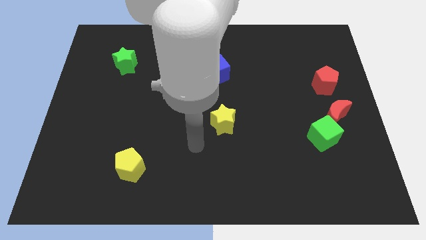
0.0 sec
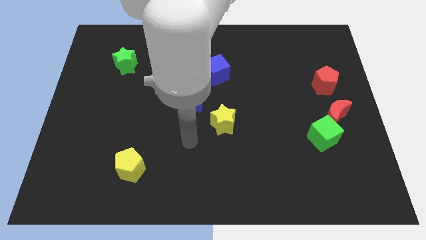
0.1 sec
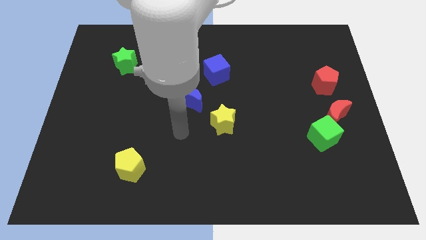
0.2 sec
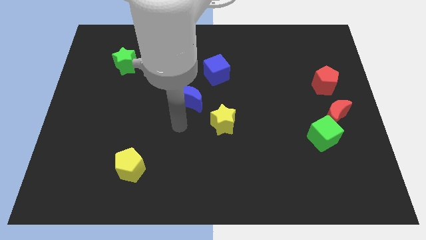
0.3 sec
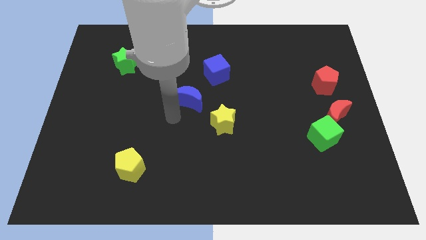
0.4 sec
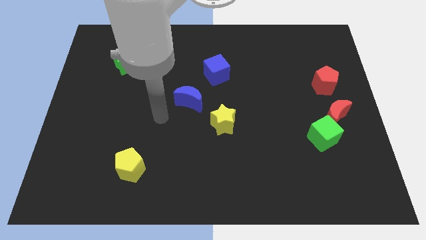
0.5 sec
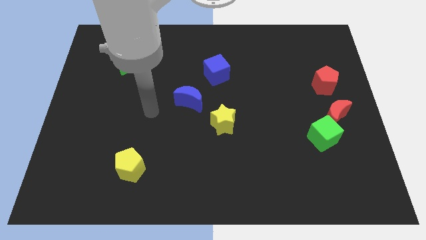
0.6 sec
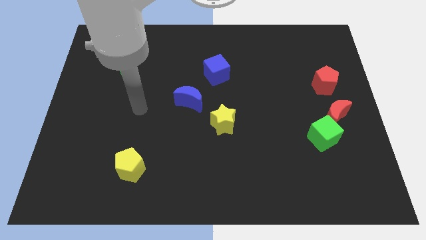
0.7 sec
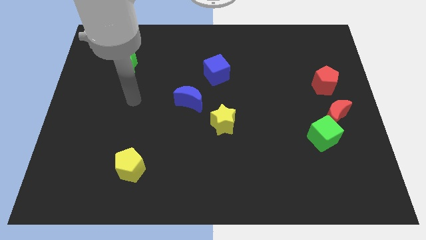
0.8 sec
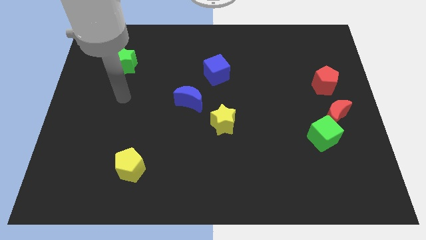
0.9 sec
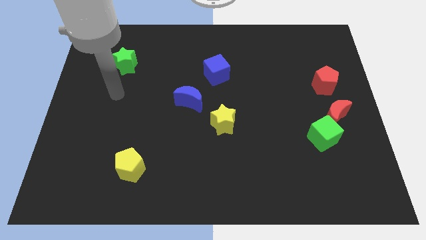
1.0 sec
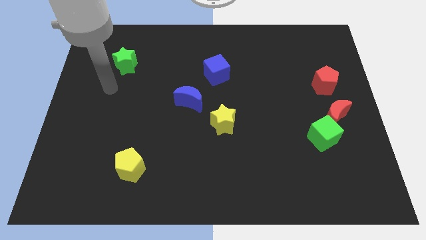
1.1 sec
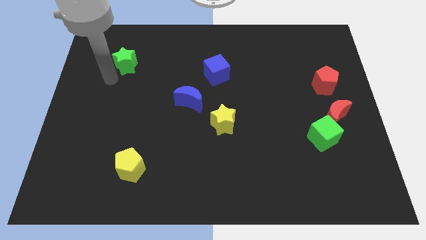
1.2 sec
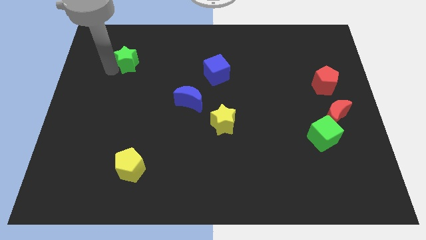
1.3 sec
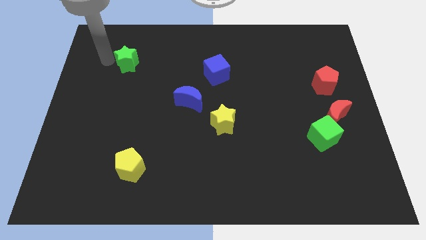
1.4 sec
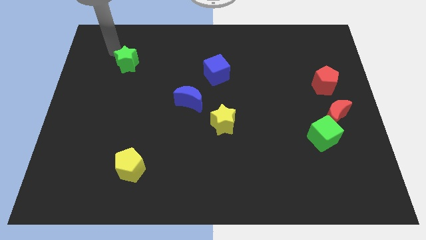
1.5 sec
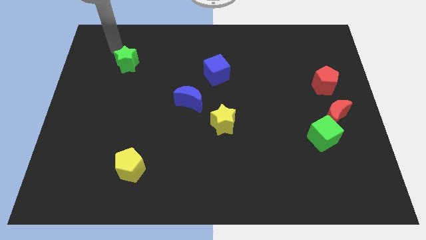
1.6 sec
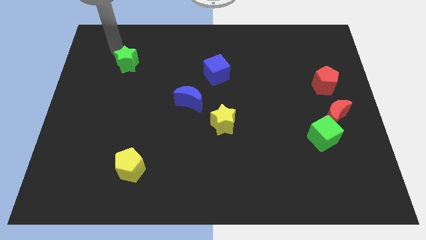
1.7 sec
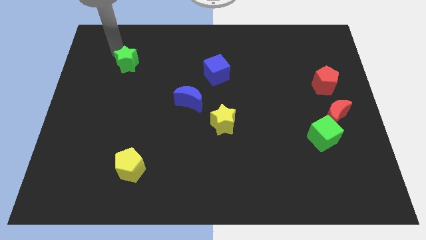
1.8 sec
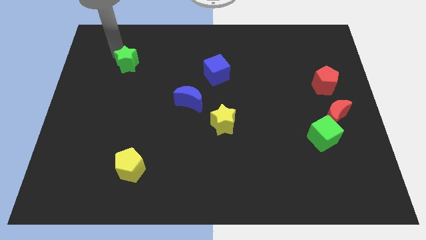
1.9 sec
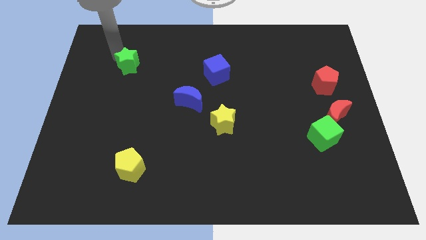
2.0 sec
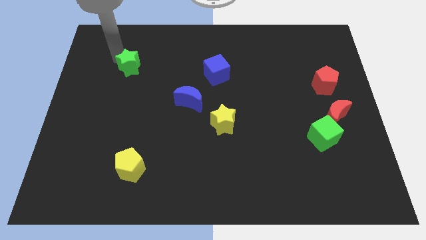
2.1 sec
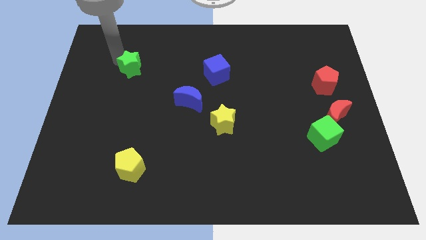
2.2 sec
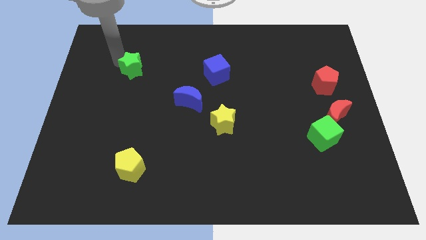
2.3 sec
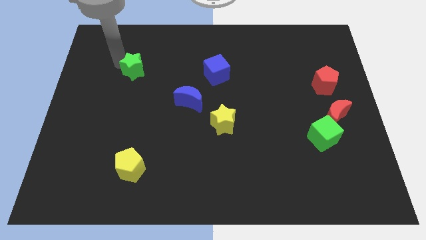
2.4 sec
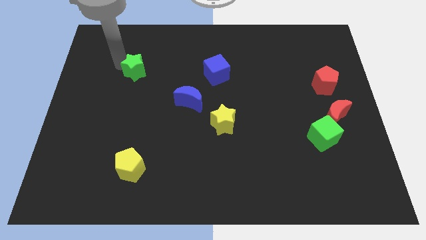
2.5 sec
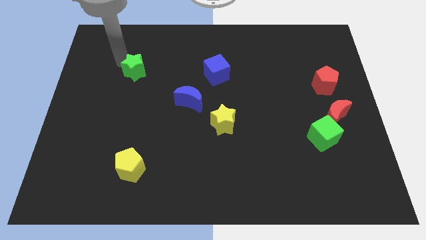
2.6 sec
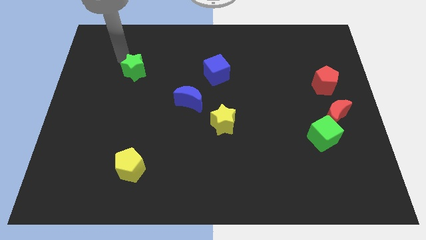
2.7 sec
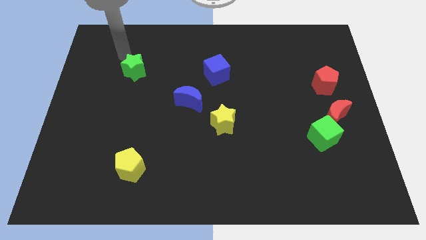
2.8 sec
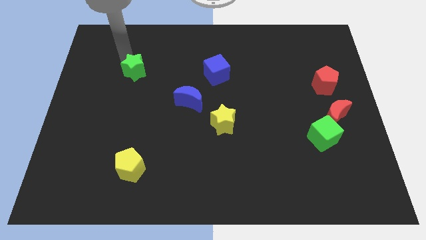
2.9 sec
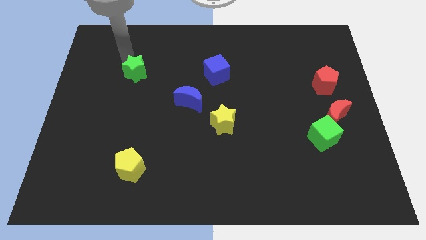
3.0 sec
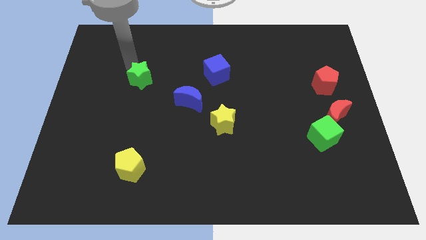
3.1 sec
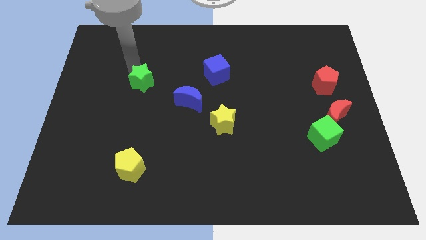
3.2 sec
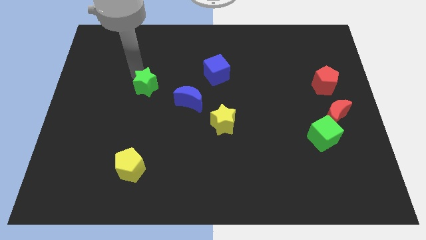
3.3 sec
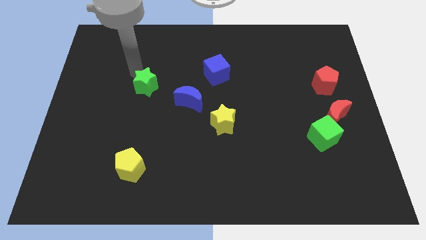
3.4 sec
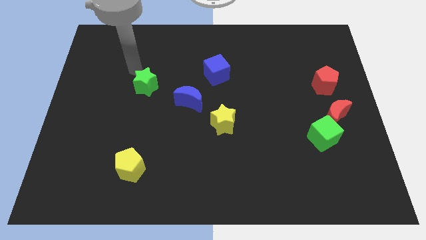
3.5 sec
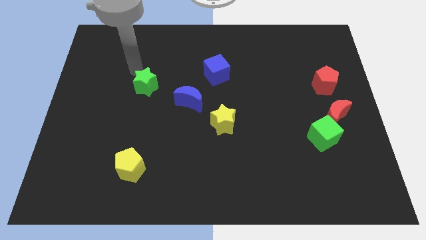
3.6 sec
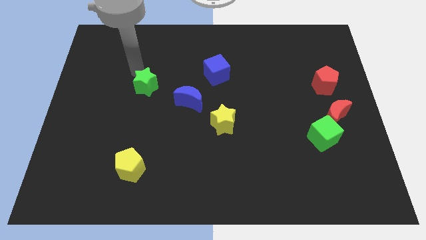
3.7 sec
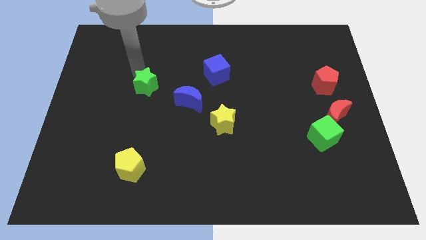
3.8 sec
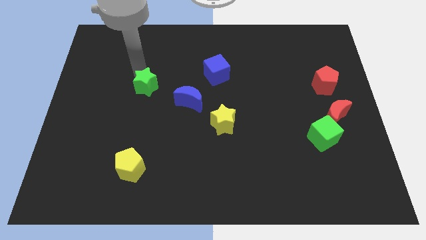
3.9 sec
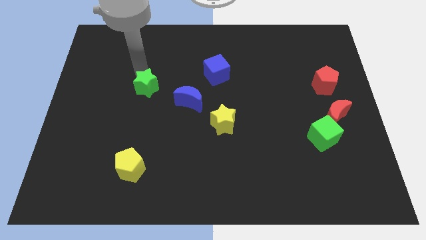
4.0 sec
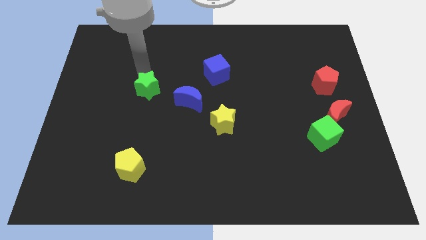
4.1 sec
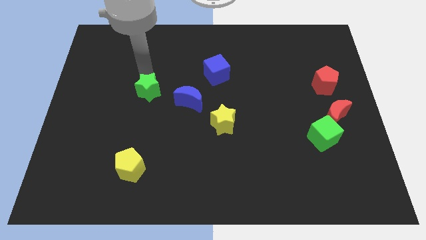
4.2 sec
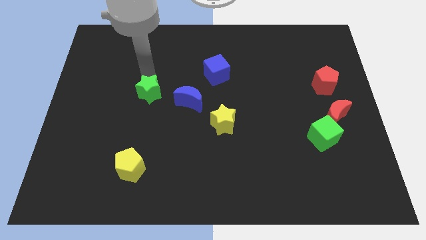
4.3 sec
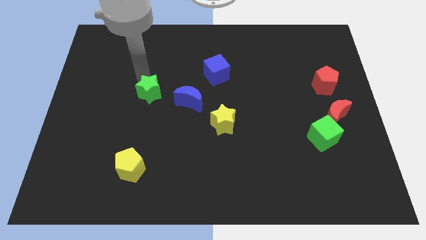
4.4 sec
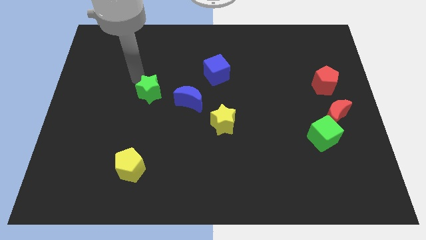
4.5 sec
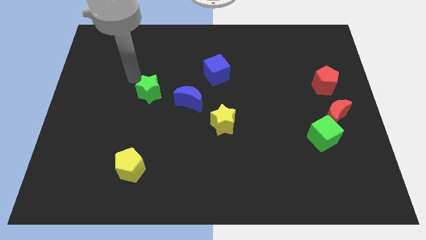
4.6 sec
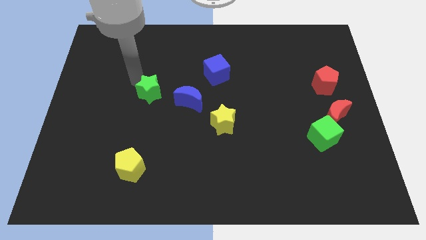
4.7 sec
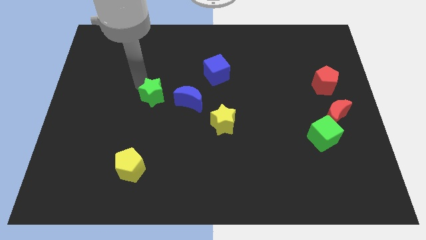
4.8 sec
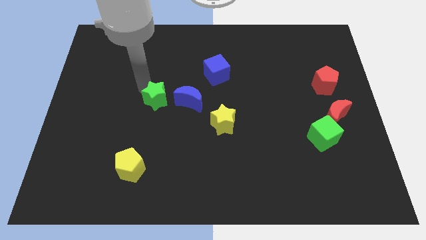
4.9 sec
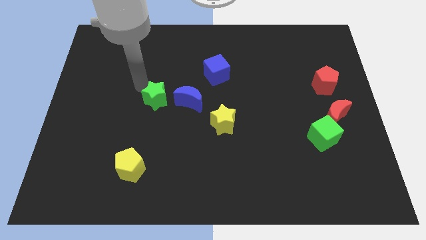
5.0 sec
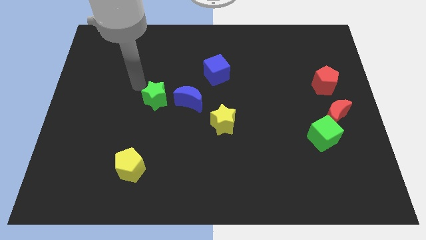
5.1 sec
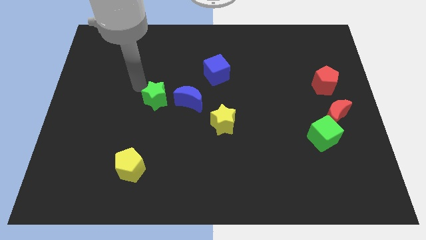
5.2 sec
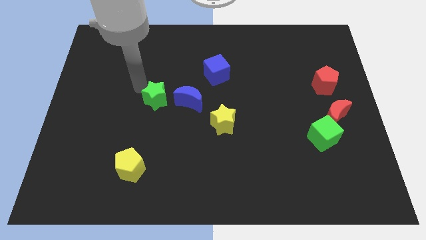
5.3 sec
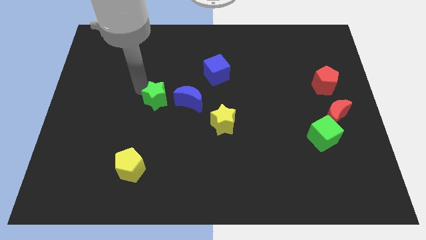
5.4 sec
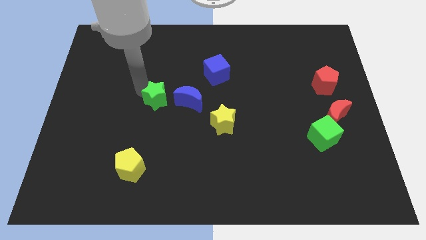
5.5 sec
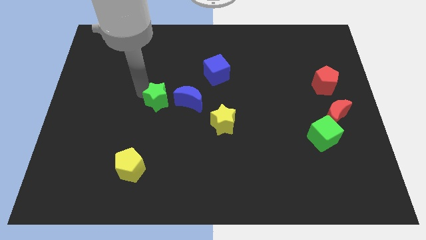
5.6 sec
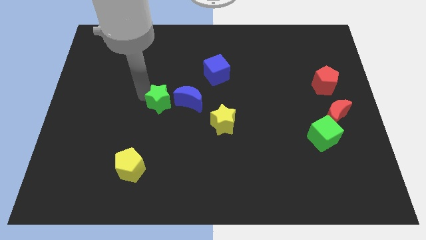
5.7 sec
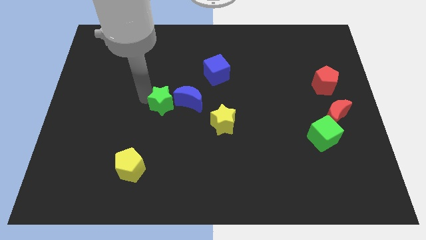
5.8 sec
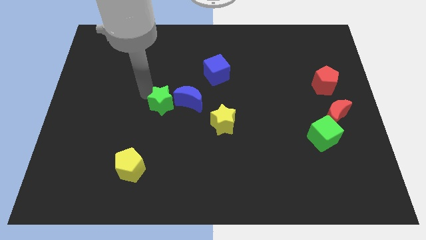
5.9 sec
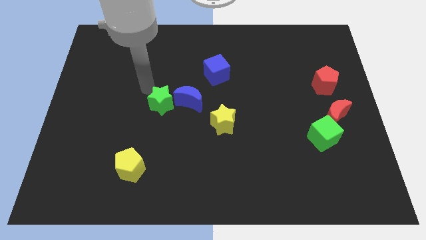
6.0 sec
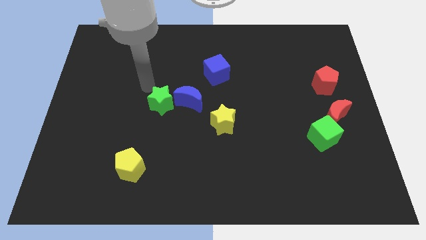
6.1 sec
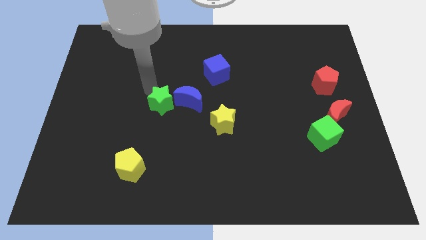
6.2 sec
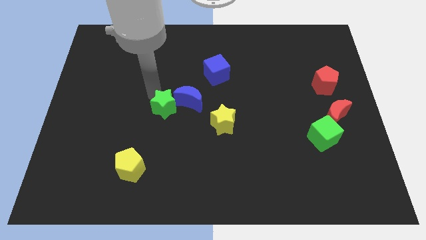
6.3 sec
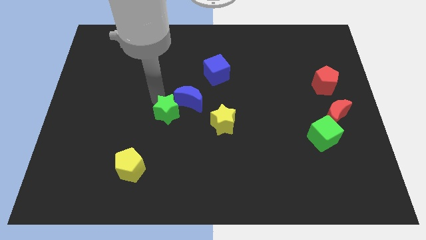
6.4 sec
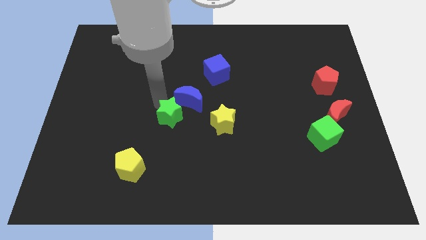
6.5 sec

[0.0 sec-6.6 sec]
push the green star diagonally down and right

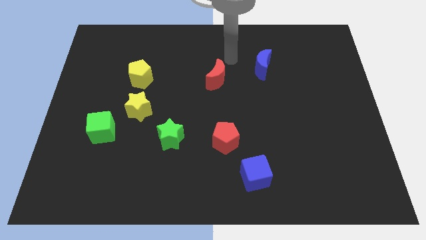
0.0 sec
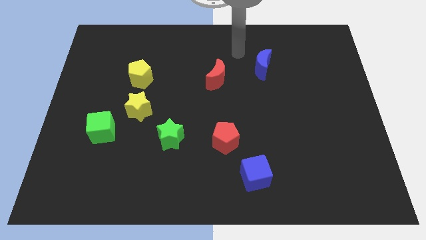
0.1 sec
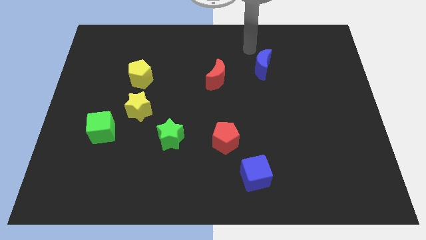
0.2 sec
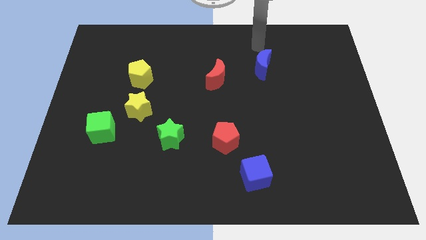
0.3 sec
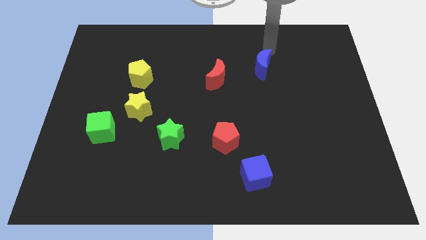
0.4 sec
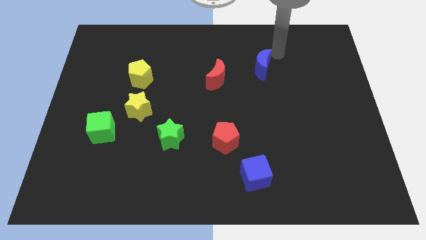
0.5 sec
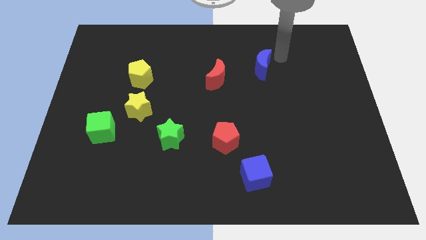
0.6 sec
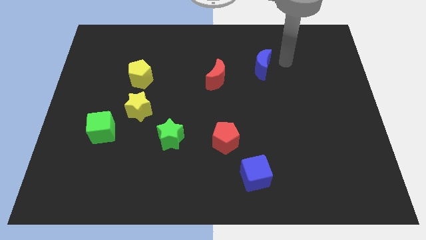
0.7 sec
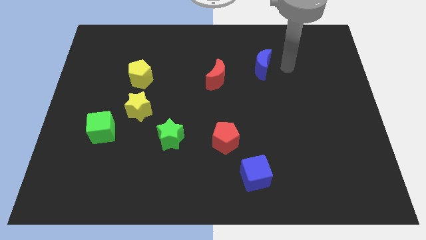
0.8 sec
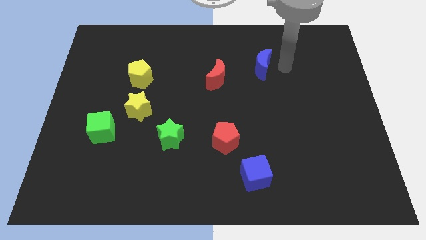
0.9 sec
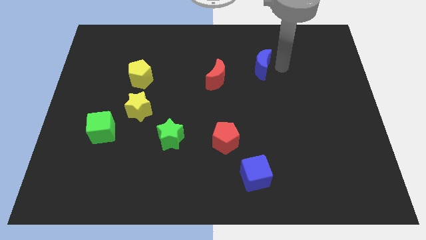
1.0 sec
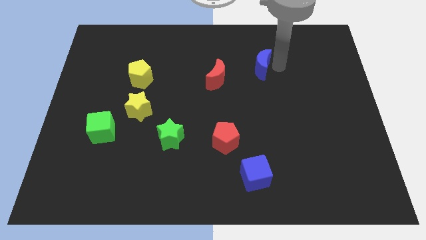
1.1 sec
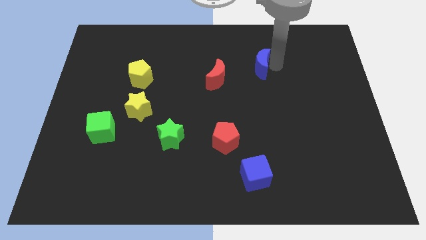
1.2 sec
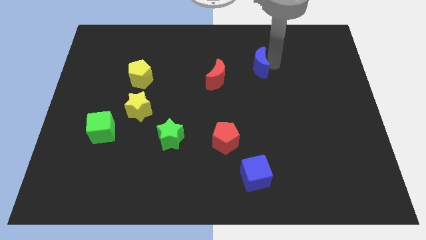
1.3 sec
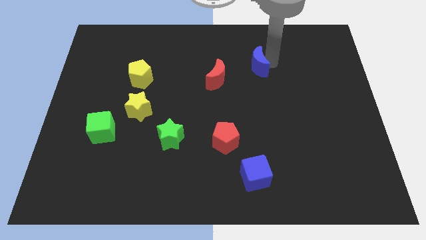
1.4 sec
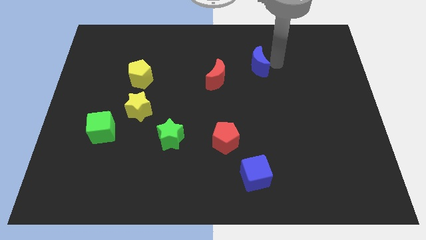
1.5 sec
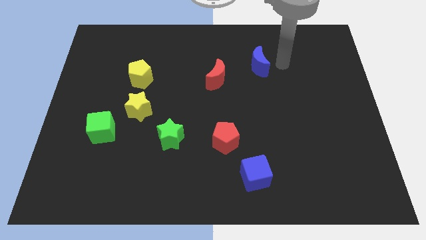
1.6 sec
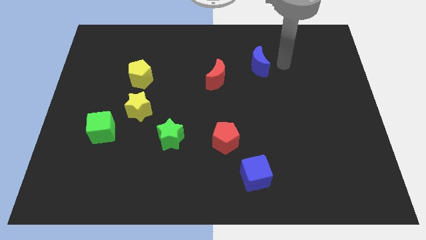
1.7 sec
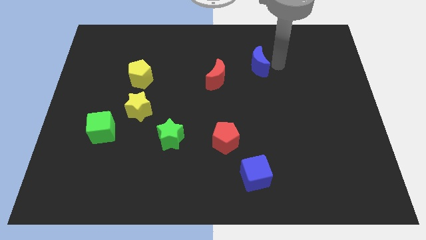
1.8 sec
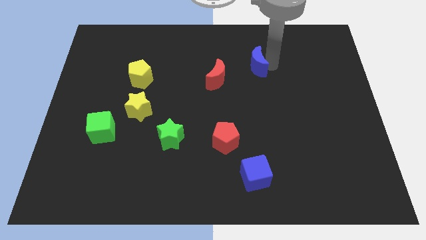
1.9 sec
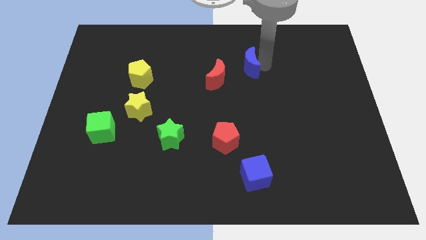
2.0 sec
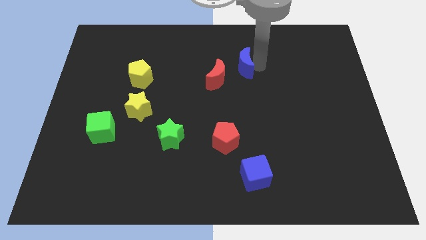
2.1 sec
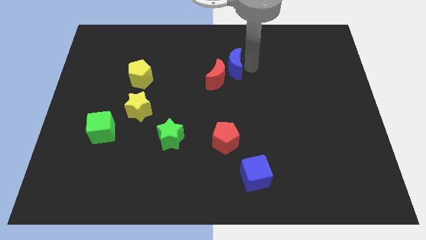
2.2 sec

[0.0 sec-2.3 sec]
slide the blue moon left slightly
